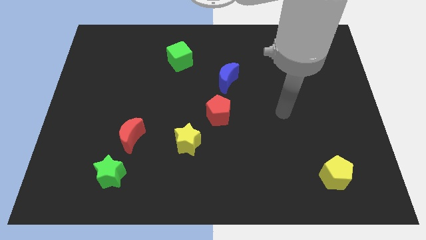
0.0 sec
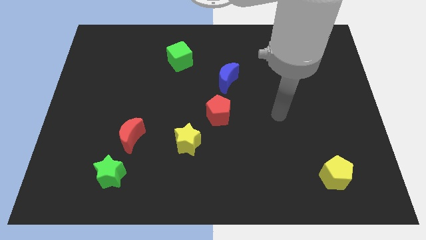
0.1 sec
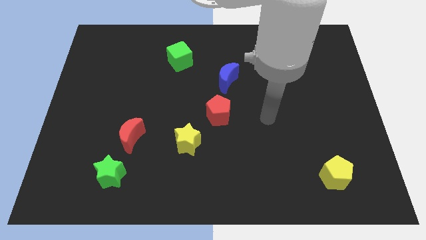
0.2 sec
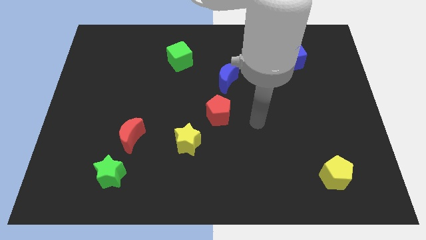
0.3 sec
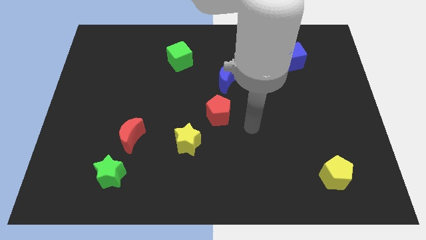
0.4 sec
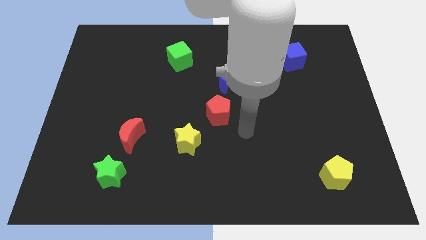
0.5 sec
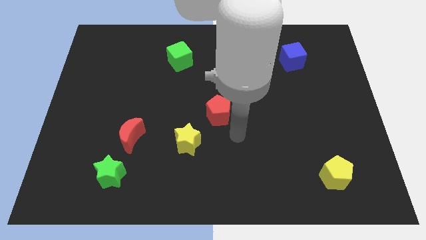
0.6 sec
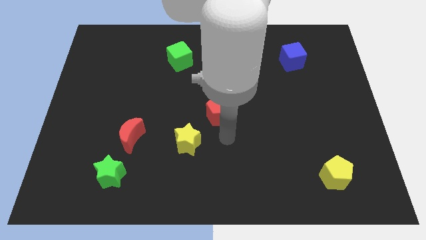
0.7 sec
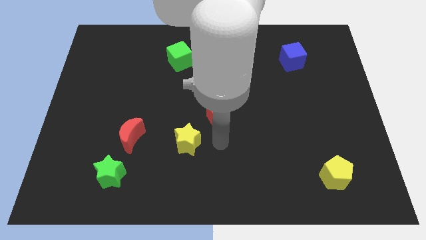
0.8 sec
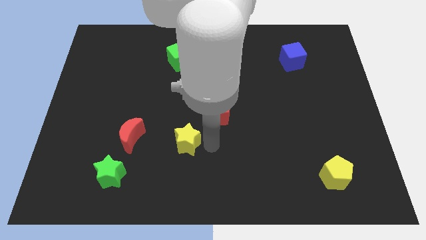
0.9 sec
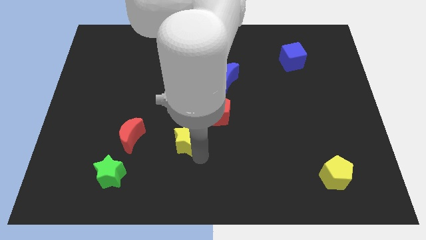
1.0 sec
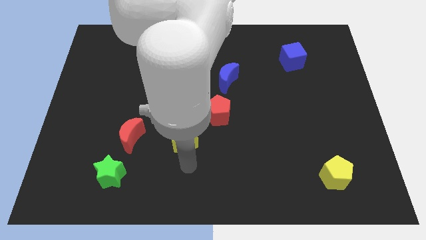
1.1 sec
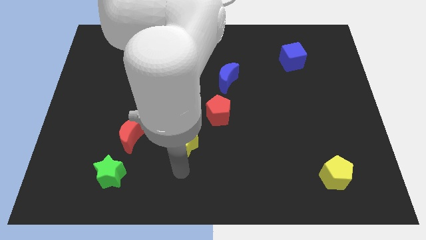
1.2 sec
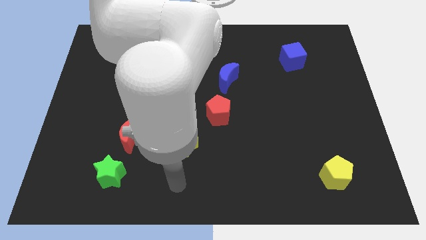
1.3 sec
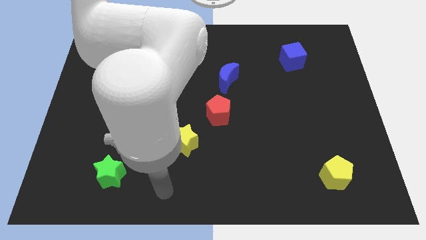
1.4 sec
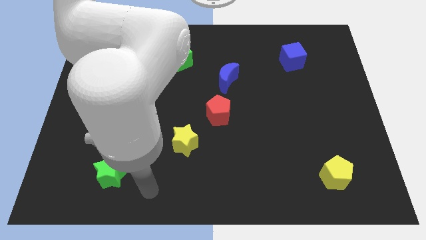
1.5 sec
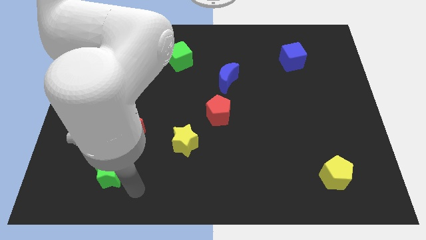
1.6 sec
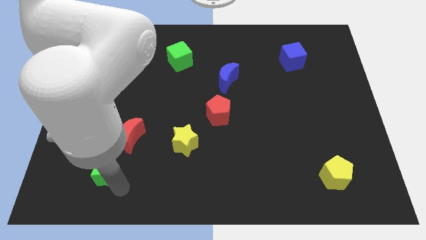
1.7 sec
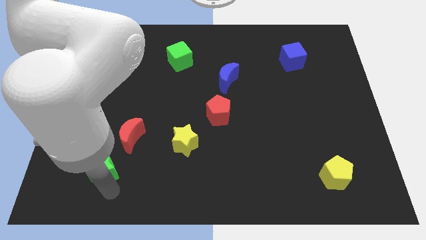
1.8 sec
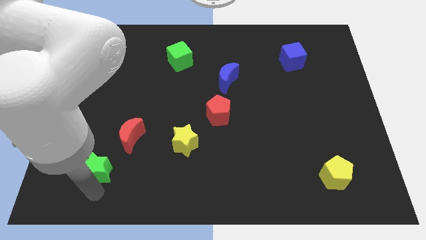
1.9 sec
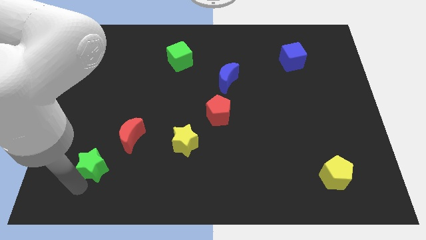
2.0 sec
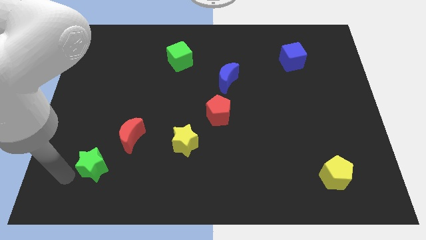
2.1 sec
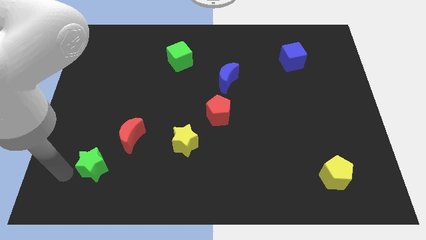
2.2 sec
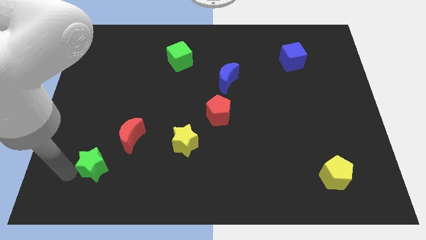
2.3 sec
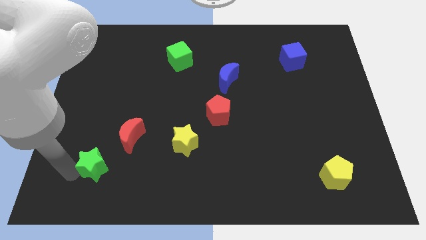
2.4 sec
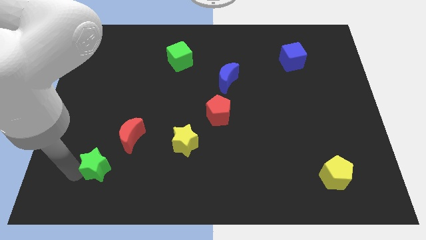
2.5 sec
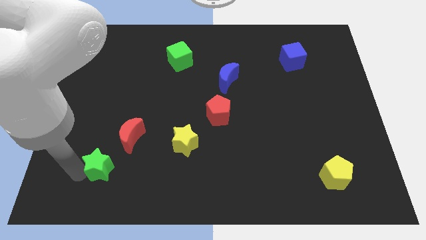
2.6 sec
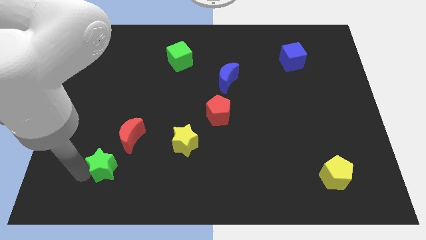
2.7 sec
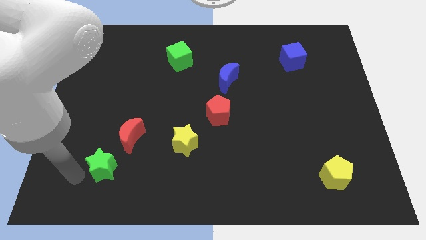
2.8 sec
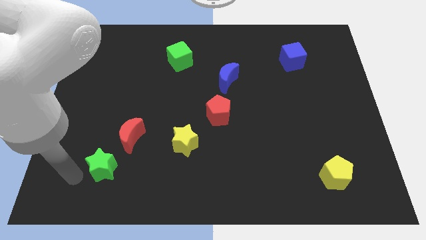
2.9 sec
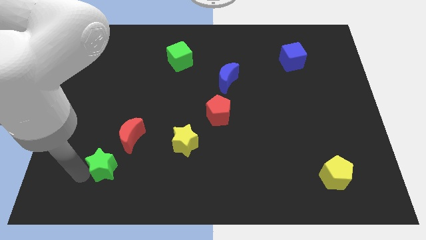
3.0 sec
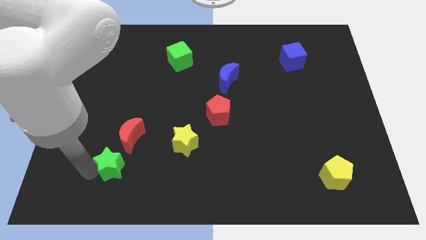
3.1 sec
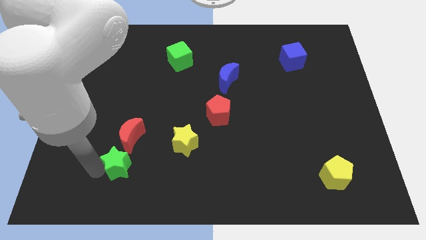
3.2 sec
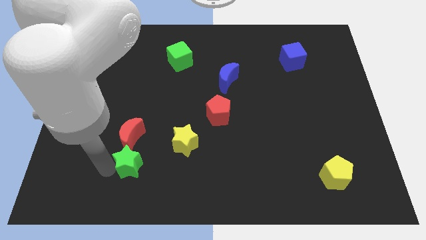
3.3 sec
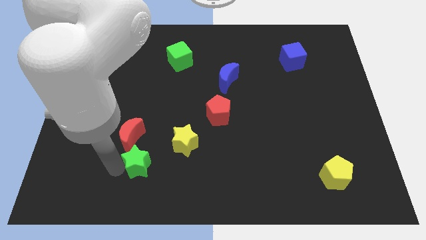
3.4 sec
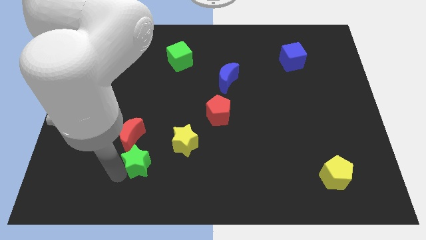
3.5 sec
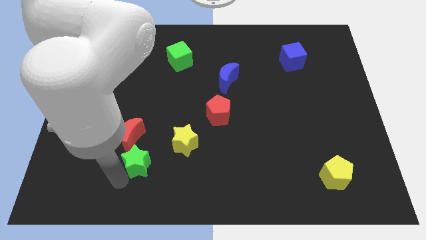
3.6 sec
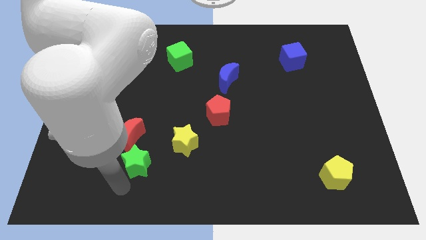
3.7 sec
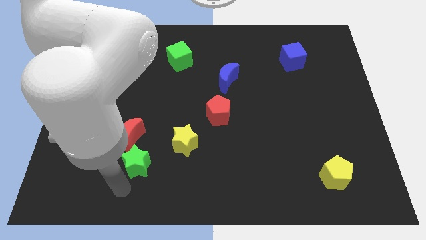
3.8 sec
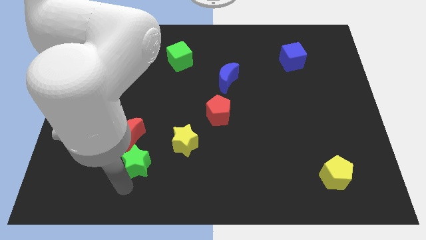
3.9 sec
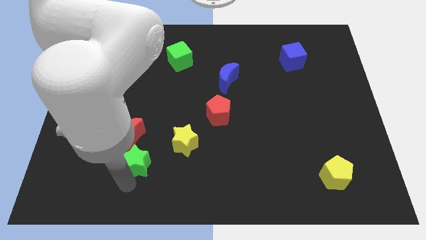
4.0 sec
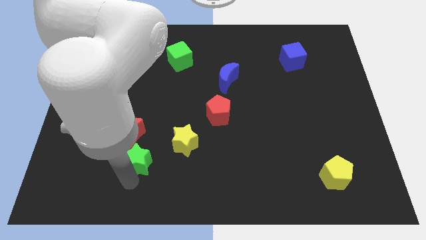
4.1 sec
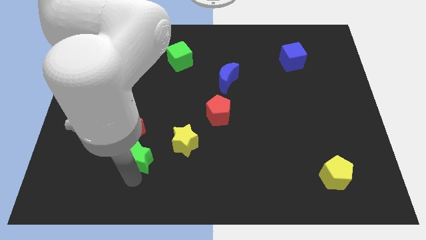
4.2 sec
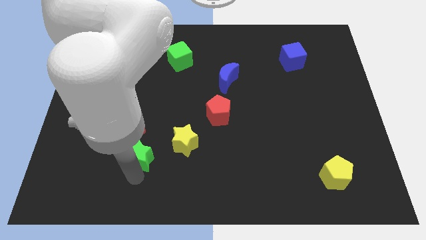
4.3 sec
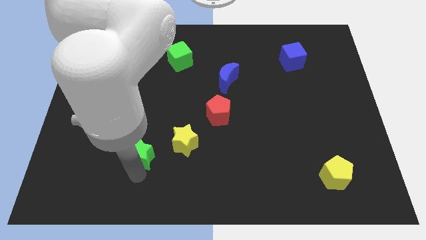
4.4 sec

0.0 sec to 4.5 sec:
move the green star a little bit diagonally up and right

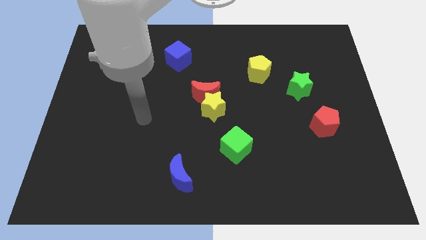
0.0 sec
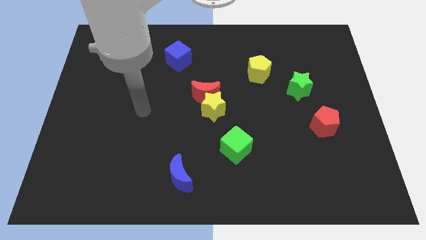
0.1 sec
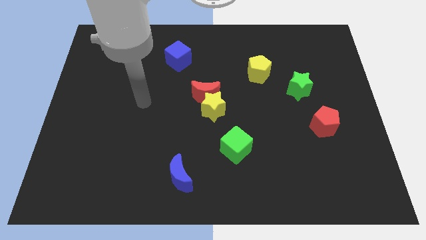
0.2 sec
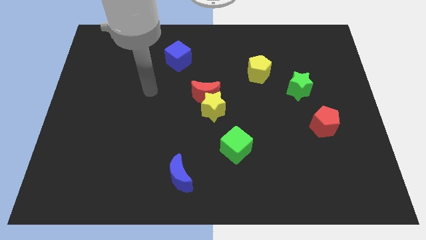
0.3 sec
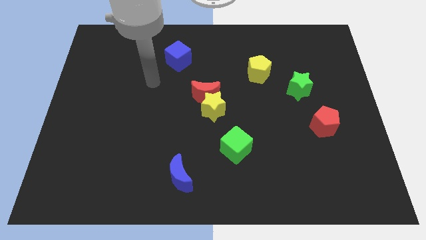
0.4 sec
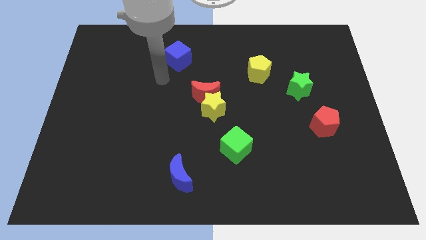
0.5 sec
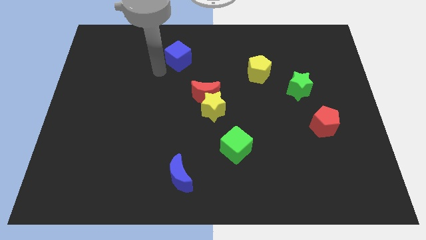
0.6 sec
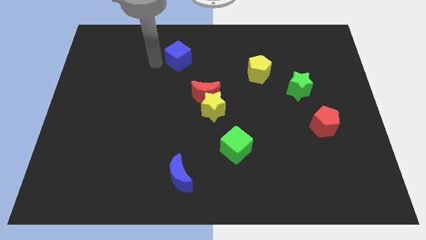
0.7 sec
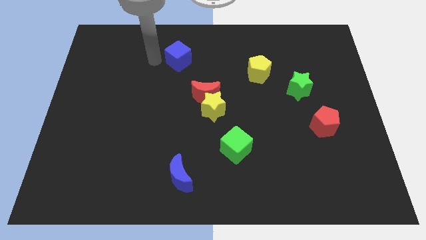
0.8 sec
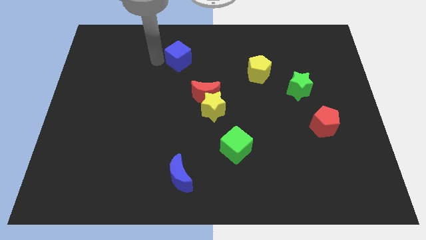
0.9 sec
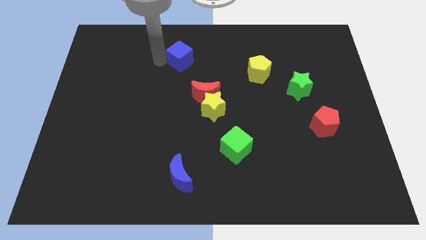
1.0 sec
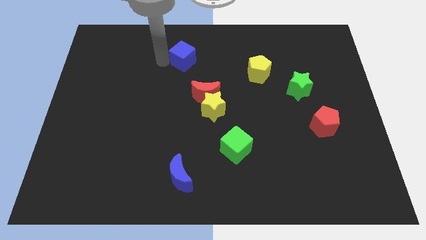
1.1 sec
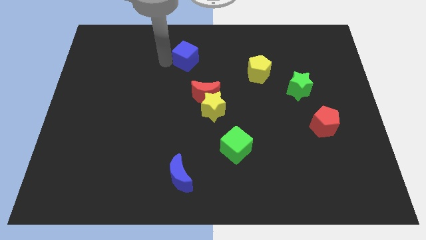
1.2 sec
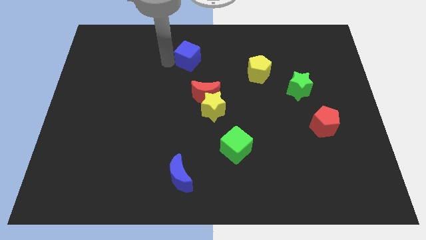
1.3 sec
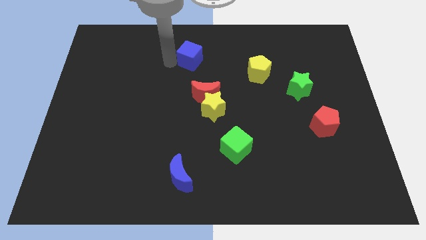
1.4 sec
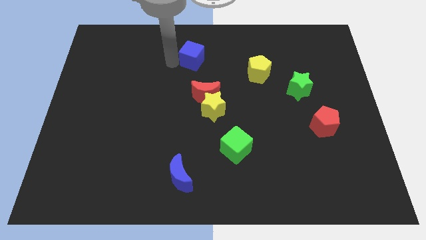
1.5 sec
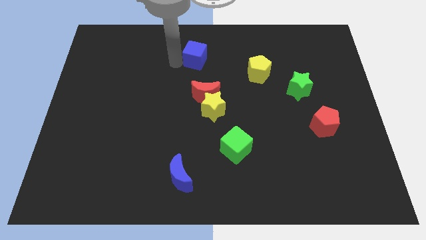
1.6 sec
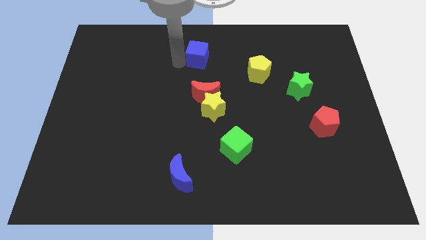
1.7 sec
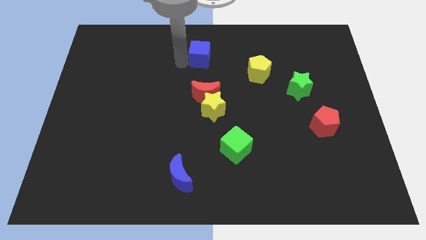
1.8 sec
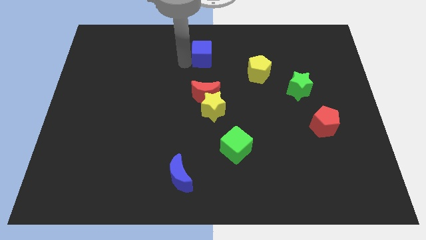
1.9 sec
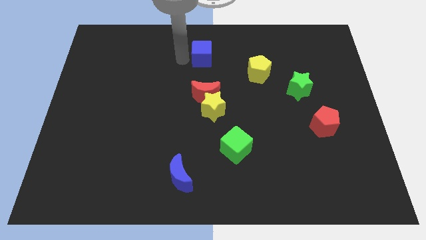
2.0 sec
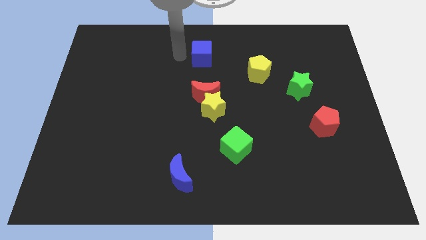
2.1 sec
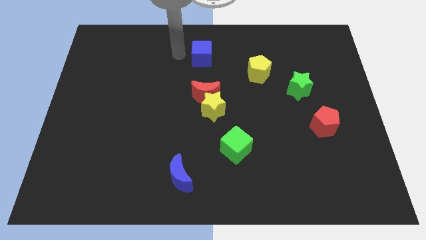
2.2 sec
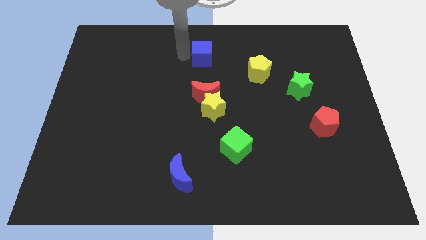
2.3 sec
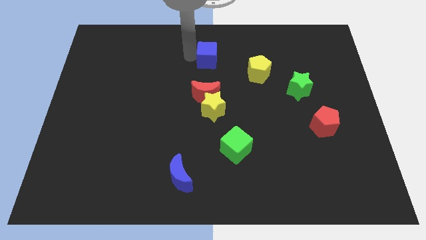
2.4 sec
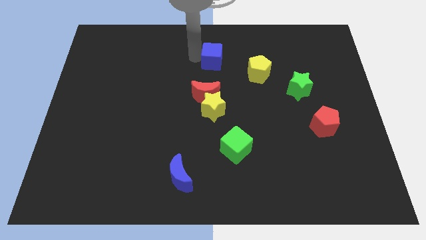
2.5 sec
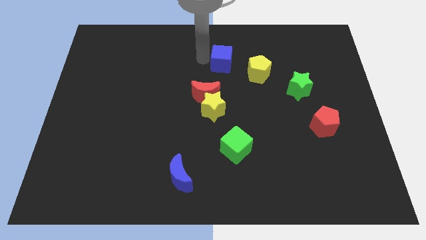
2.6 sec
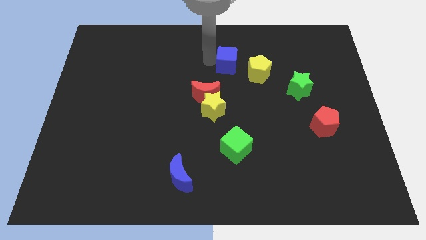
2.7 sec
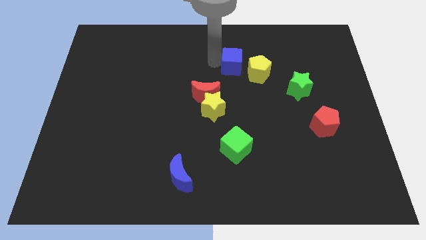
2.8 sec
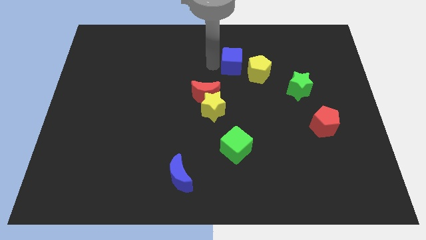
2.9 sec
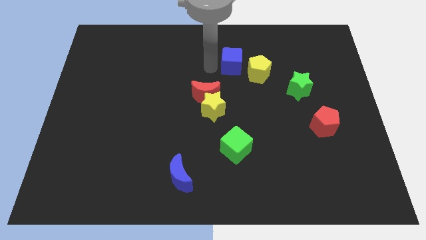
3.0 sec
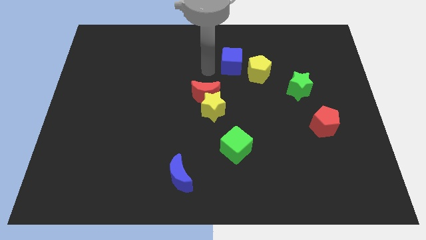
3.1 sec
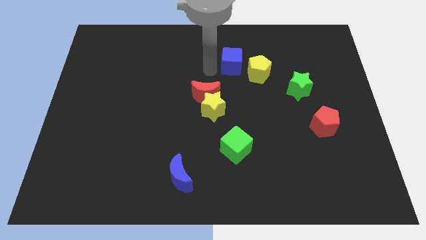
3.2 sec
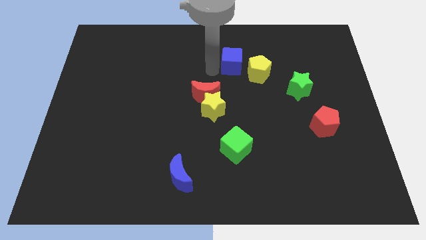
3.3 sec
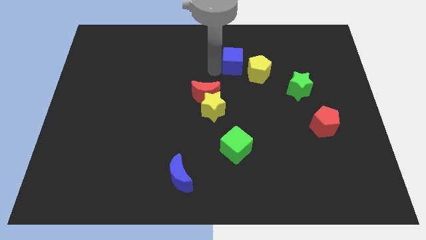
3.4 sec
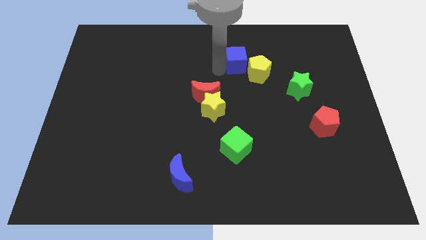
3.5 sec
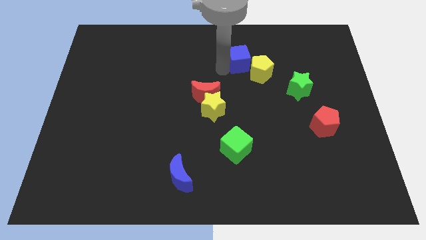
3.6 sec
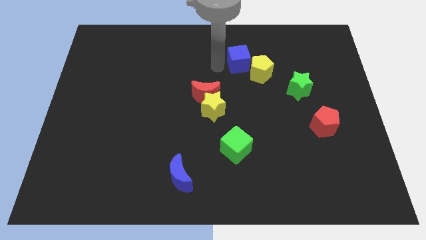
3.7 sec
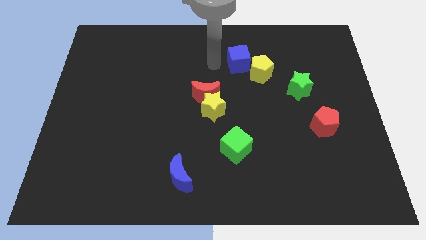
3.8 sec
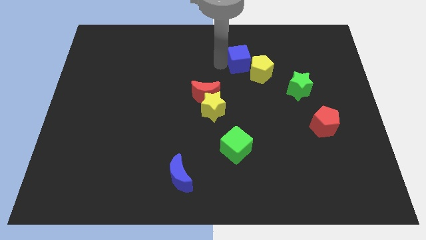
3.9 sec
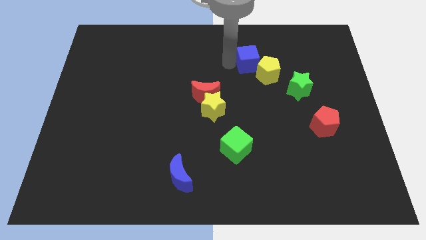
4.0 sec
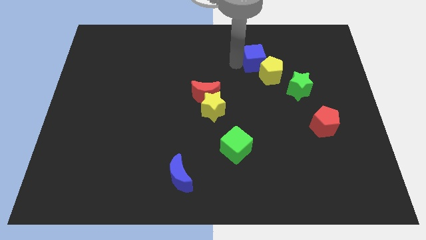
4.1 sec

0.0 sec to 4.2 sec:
push the blue cube right
